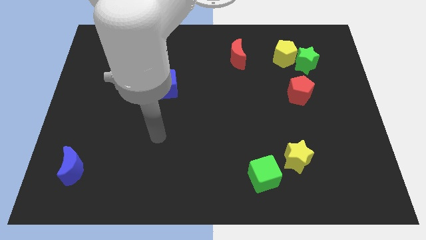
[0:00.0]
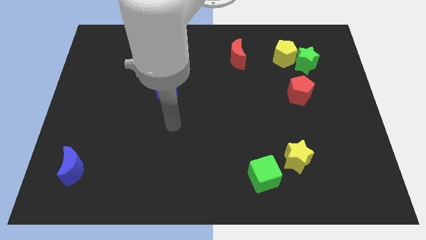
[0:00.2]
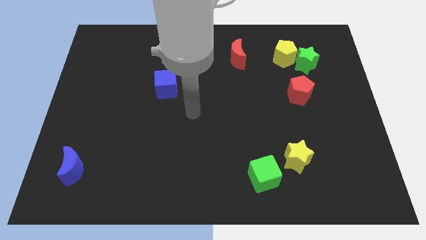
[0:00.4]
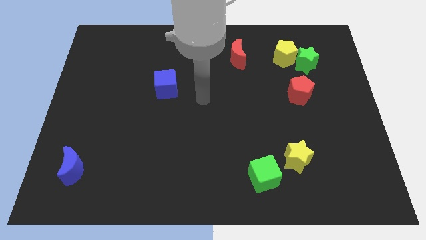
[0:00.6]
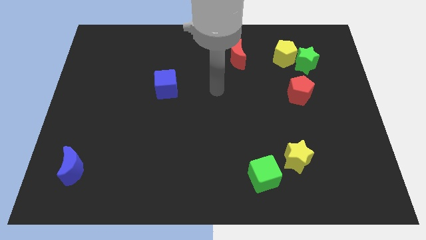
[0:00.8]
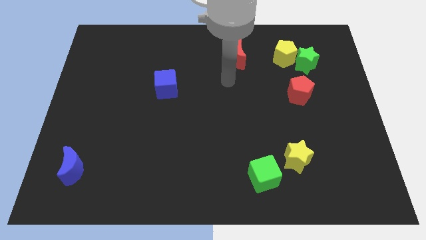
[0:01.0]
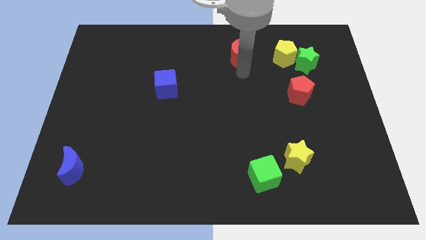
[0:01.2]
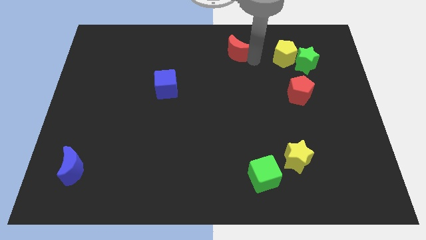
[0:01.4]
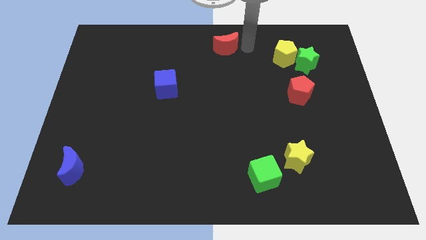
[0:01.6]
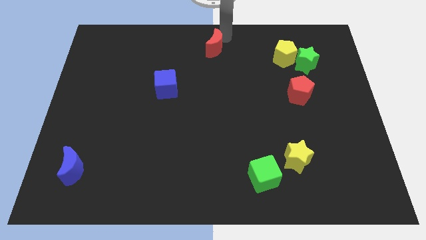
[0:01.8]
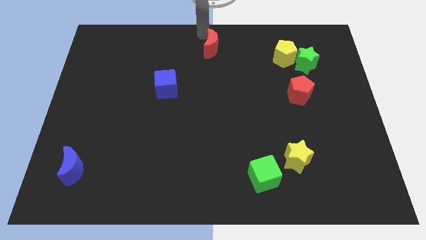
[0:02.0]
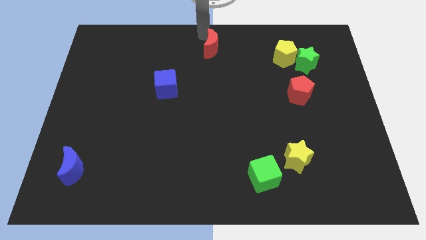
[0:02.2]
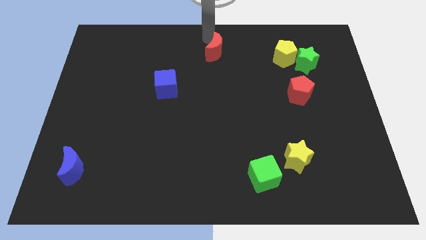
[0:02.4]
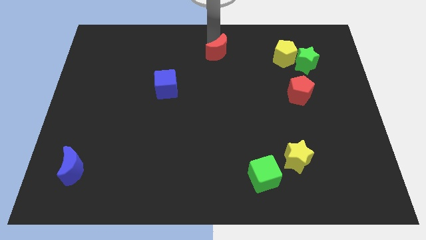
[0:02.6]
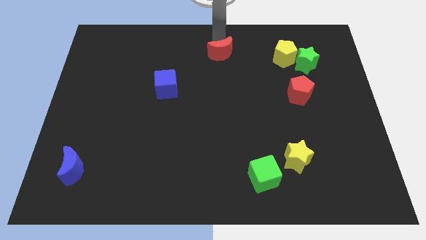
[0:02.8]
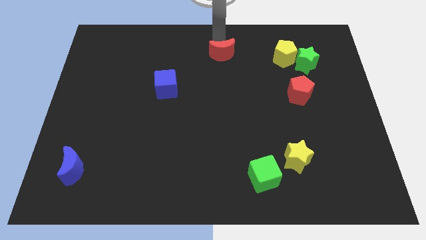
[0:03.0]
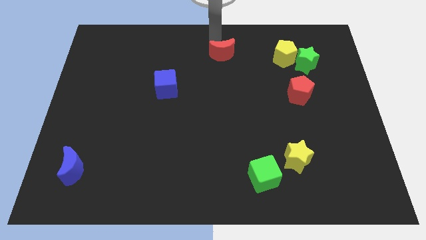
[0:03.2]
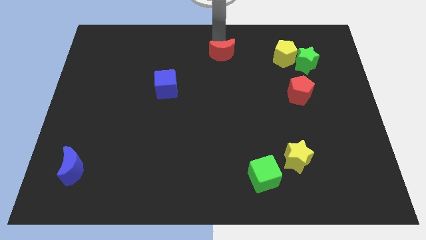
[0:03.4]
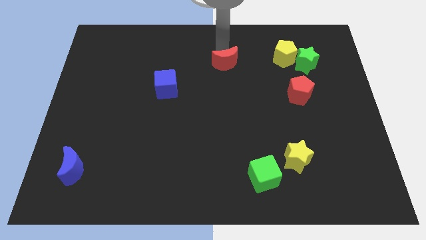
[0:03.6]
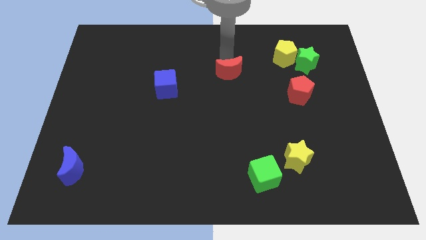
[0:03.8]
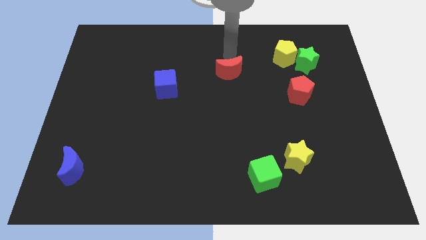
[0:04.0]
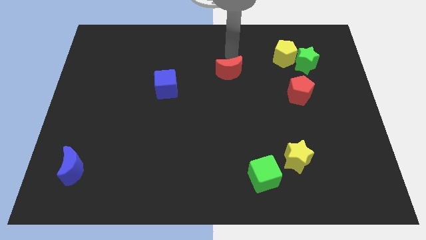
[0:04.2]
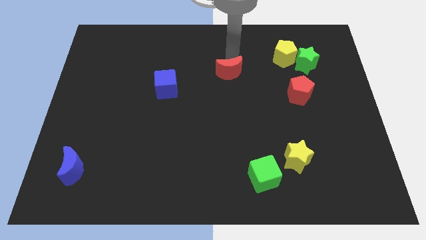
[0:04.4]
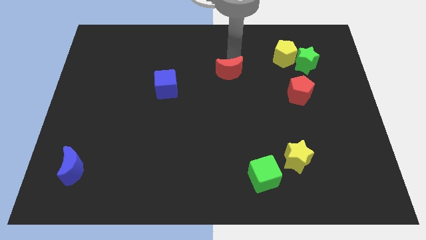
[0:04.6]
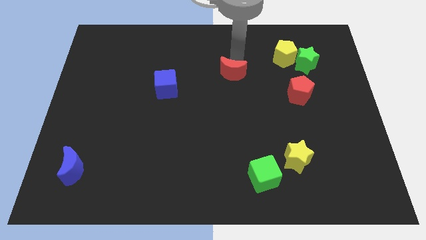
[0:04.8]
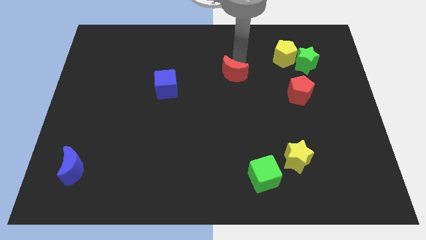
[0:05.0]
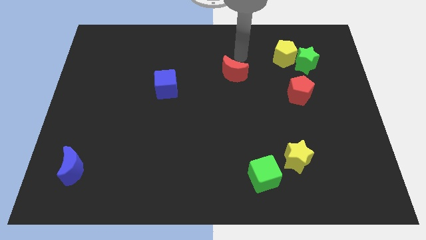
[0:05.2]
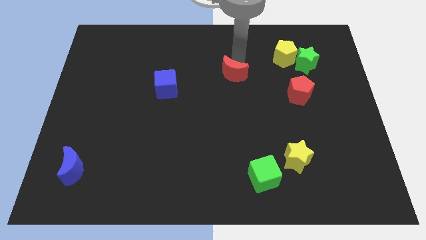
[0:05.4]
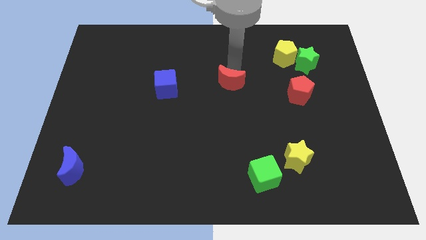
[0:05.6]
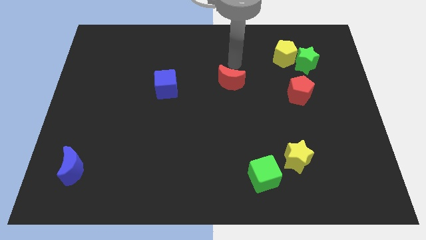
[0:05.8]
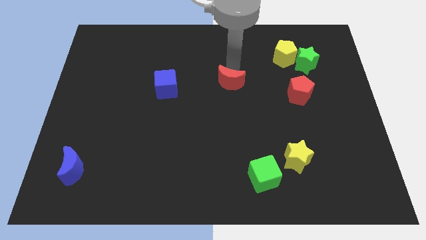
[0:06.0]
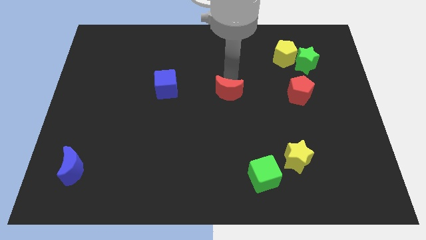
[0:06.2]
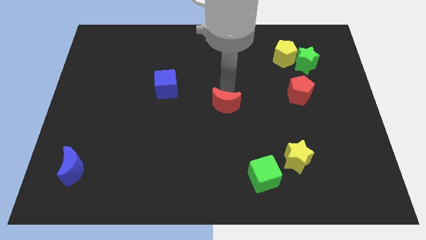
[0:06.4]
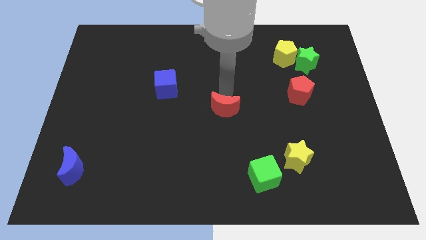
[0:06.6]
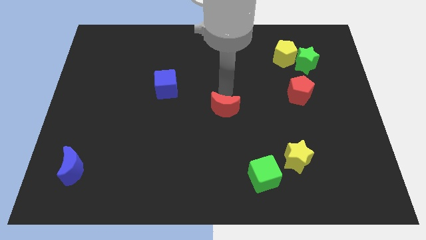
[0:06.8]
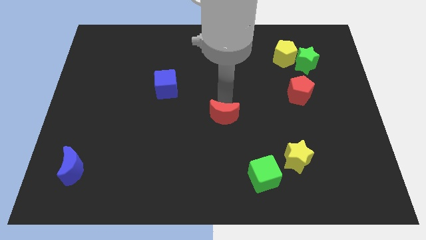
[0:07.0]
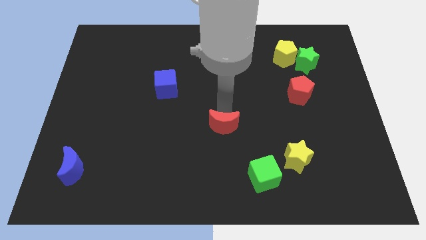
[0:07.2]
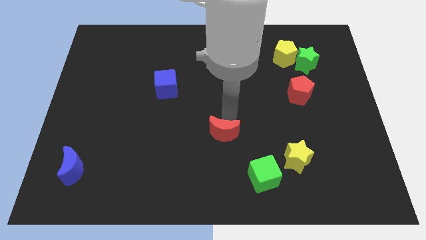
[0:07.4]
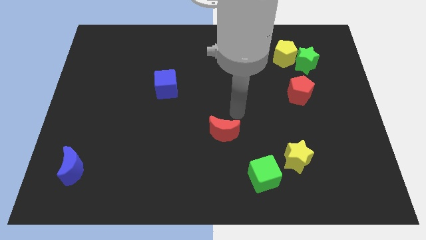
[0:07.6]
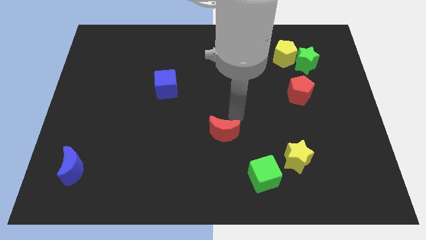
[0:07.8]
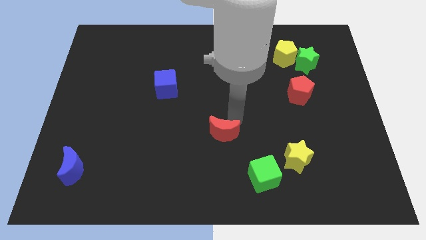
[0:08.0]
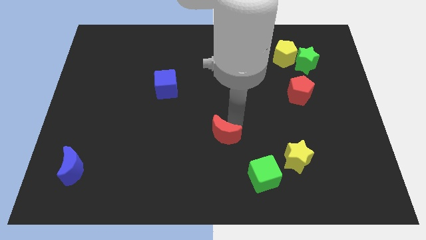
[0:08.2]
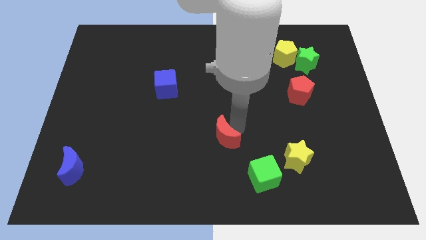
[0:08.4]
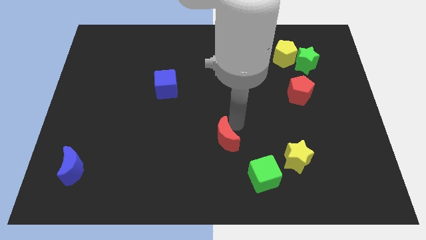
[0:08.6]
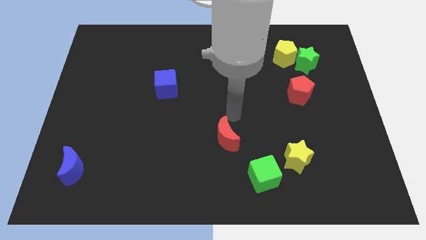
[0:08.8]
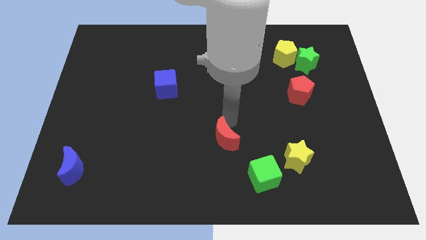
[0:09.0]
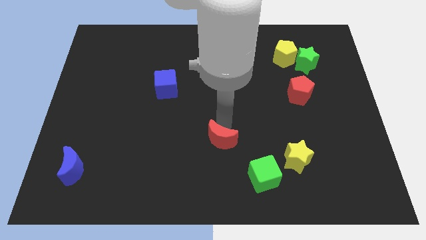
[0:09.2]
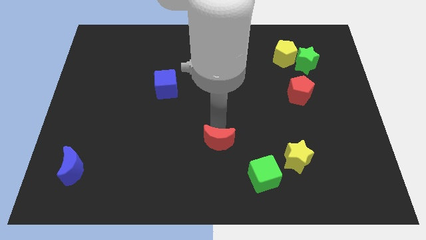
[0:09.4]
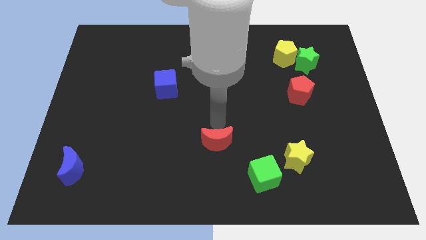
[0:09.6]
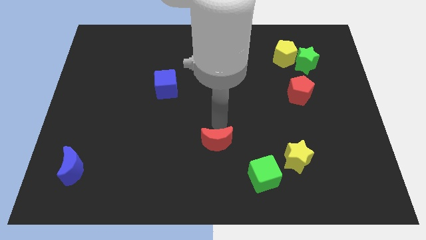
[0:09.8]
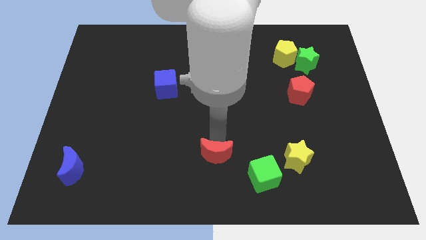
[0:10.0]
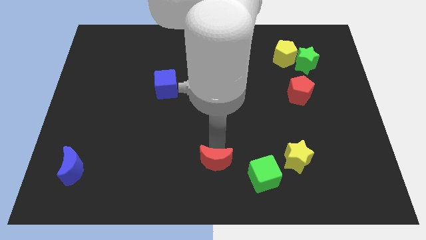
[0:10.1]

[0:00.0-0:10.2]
push the red moon to the left side of the green cube

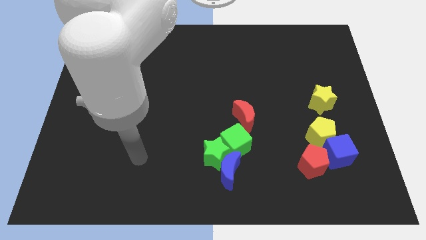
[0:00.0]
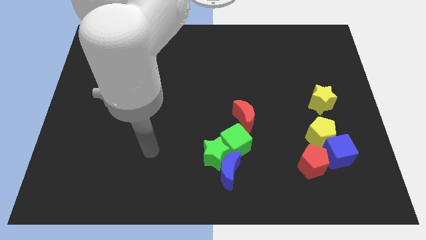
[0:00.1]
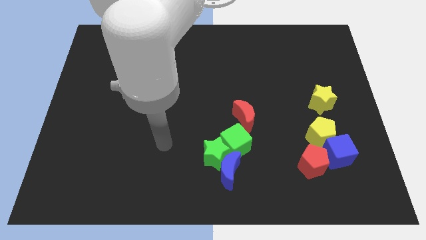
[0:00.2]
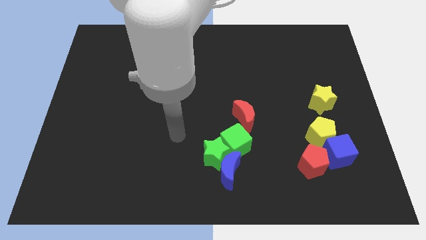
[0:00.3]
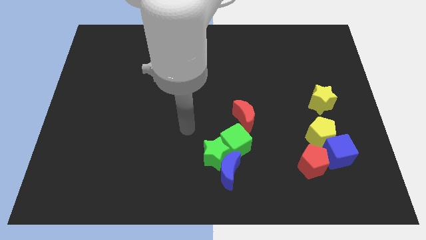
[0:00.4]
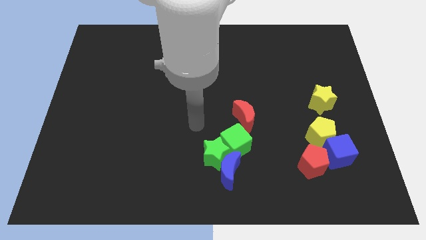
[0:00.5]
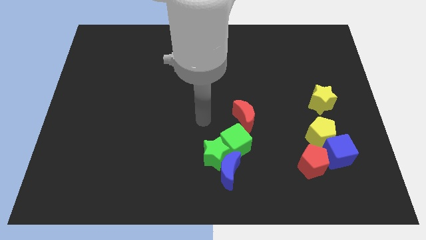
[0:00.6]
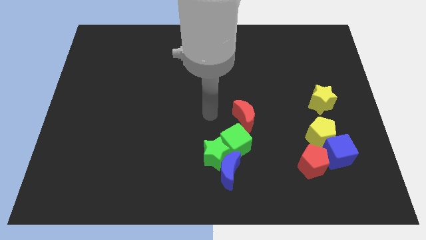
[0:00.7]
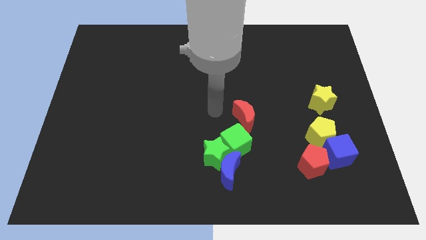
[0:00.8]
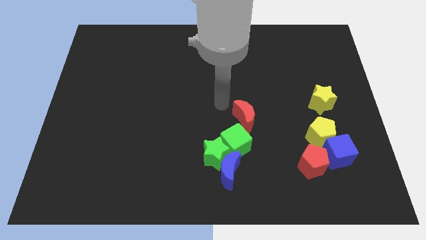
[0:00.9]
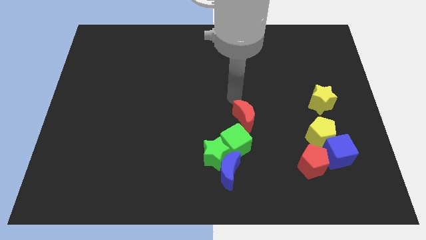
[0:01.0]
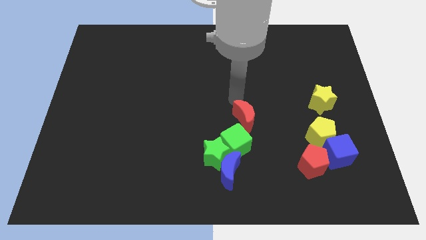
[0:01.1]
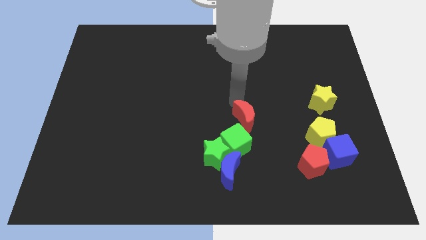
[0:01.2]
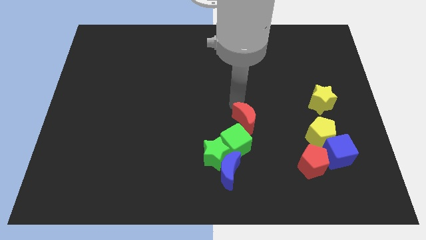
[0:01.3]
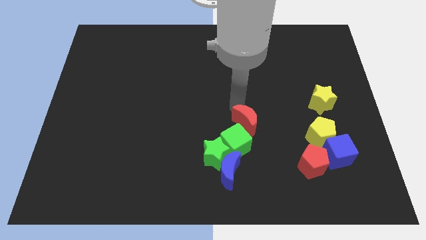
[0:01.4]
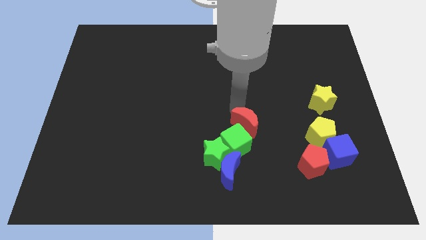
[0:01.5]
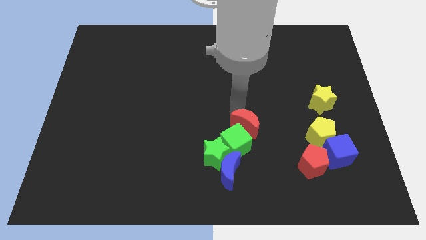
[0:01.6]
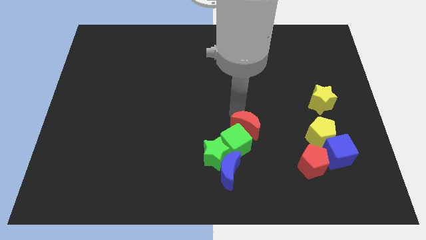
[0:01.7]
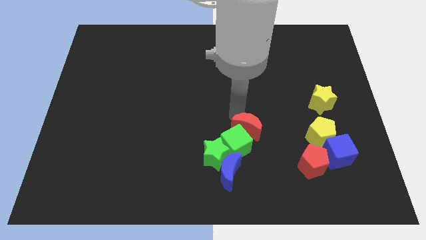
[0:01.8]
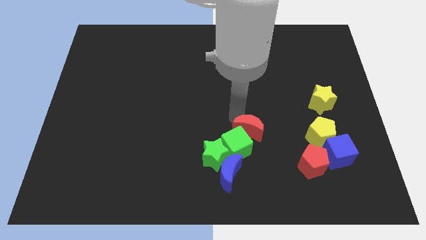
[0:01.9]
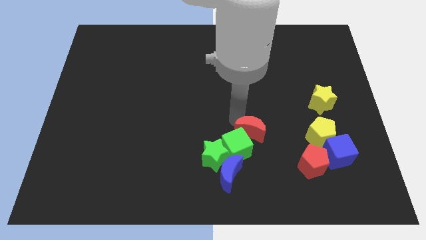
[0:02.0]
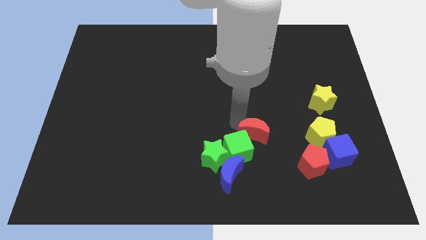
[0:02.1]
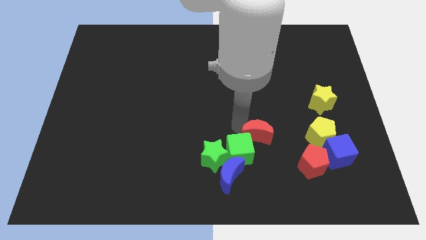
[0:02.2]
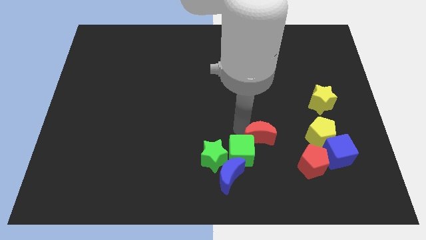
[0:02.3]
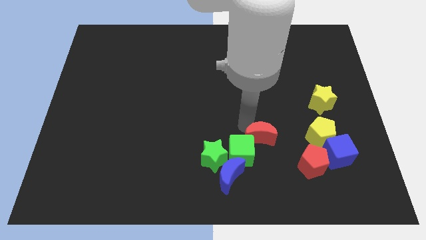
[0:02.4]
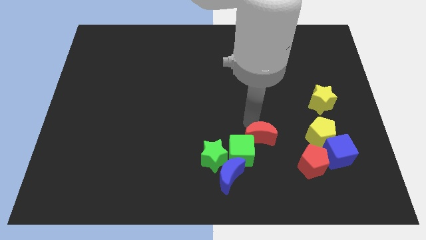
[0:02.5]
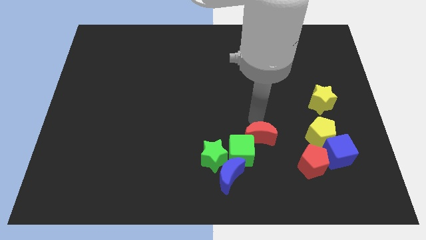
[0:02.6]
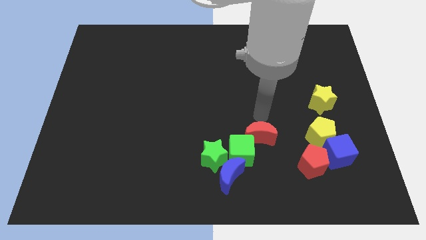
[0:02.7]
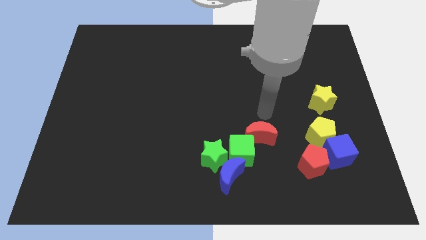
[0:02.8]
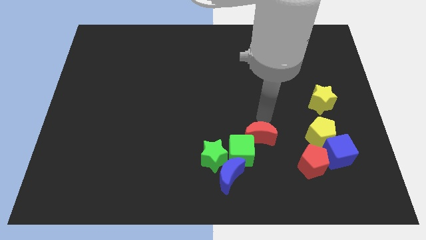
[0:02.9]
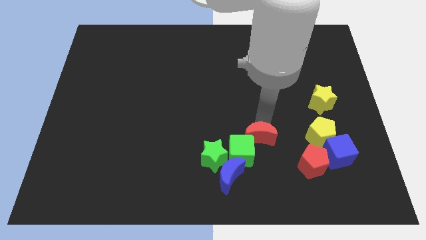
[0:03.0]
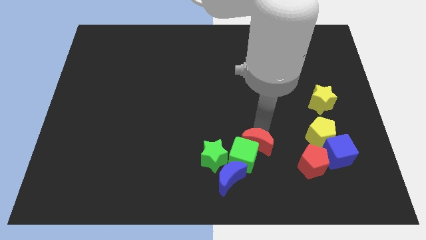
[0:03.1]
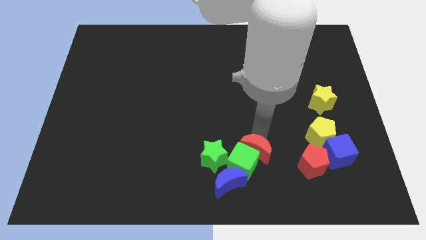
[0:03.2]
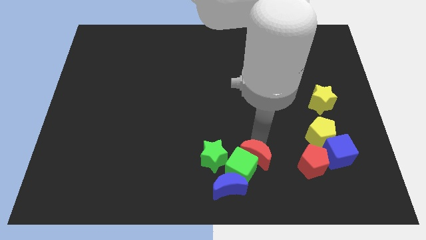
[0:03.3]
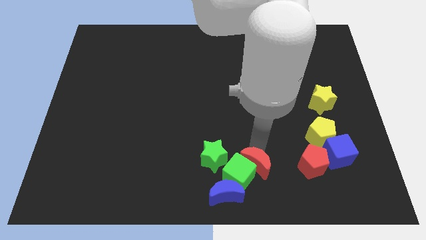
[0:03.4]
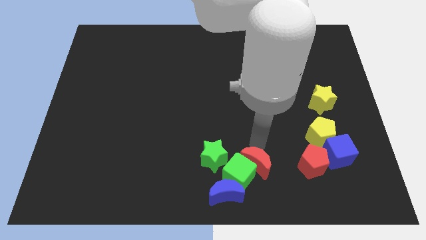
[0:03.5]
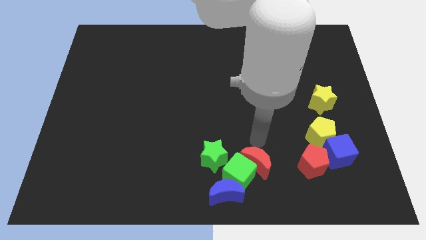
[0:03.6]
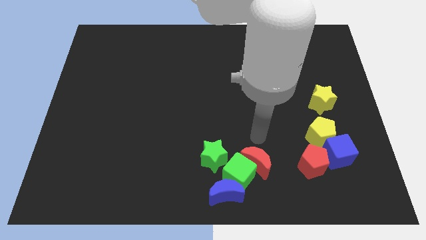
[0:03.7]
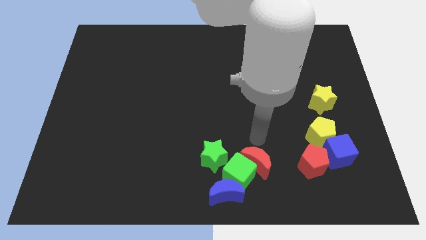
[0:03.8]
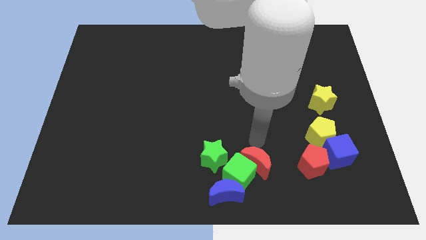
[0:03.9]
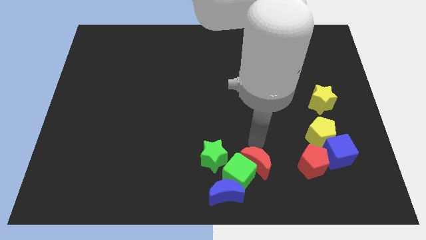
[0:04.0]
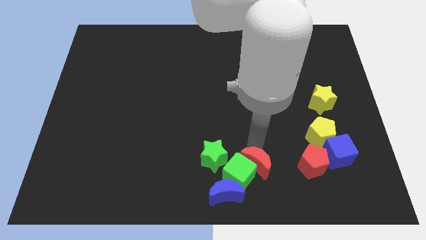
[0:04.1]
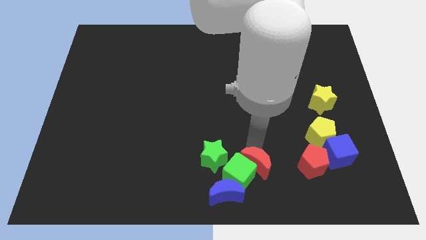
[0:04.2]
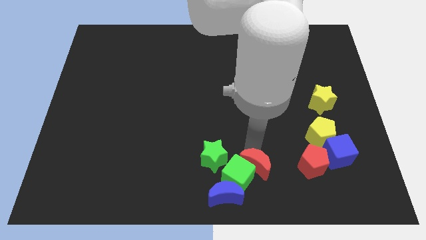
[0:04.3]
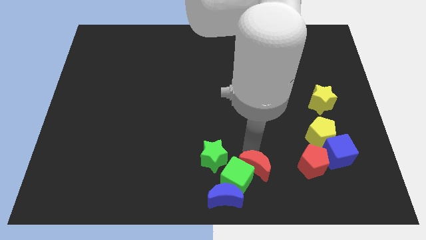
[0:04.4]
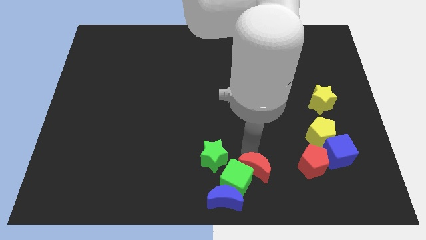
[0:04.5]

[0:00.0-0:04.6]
slide the red moon to the bottom right of the green star
